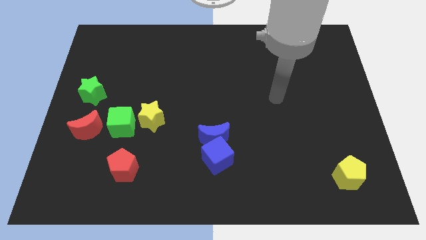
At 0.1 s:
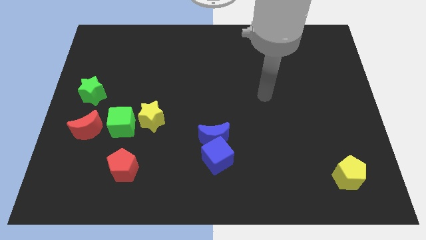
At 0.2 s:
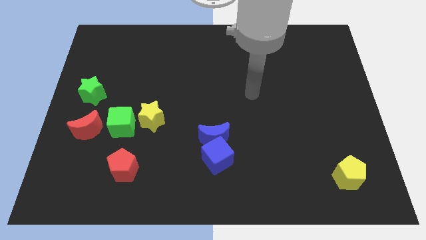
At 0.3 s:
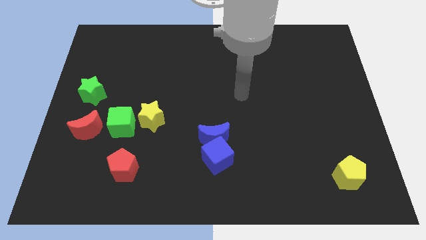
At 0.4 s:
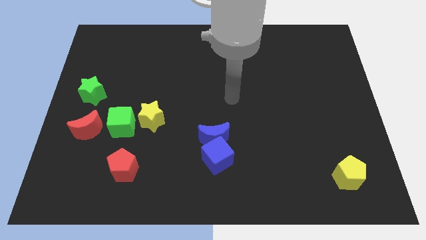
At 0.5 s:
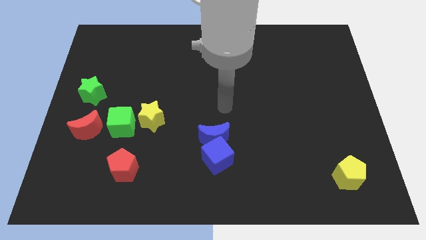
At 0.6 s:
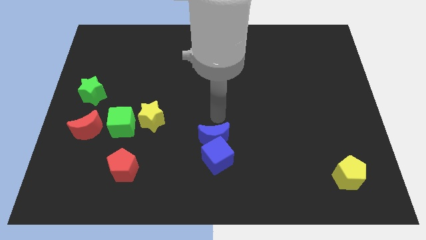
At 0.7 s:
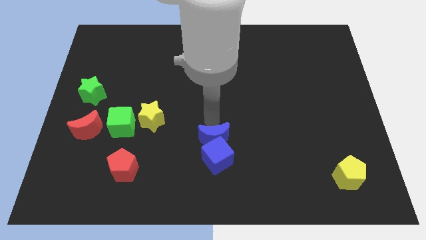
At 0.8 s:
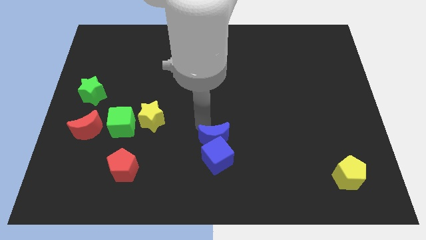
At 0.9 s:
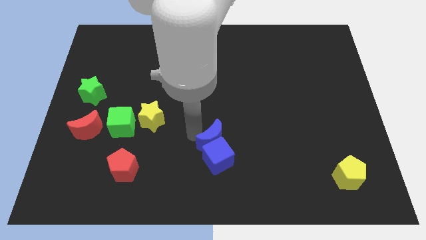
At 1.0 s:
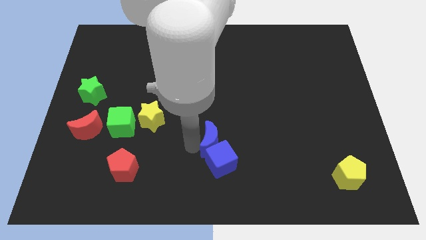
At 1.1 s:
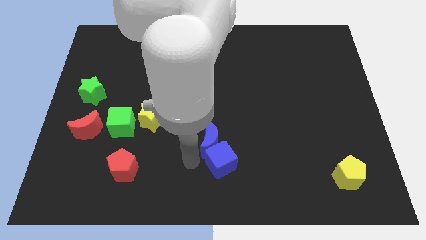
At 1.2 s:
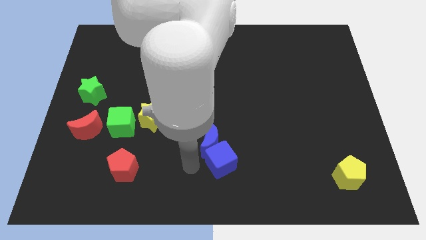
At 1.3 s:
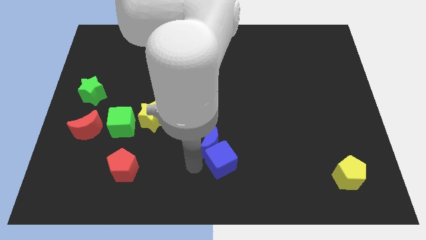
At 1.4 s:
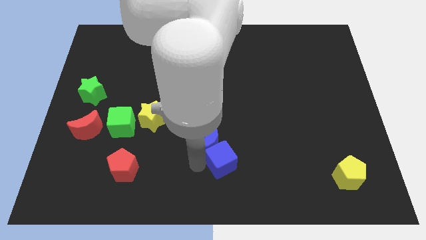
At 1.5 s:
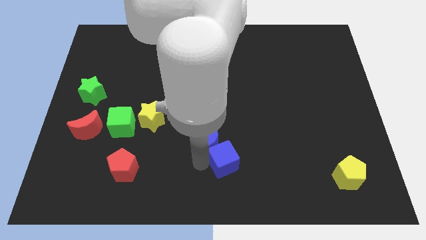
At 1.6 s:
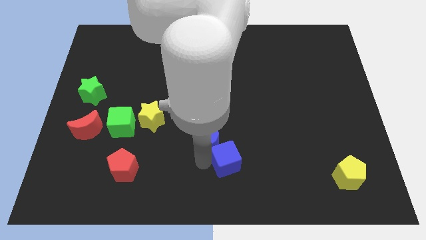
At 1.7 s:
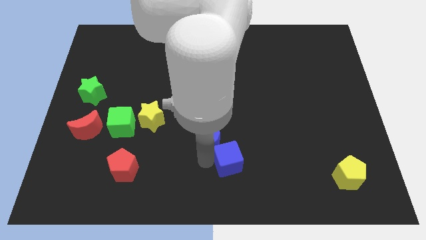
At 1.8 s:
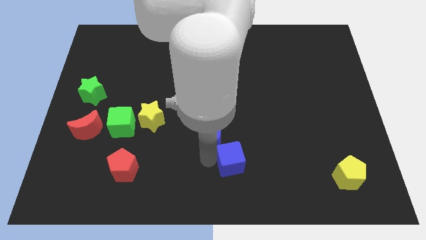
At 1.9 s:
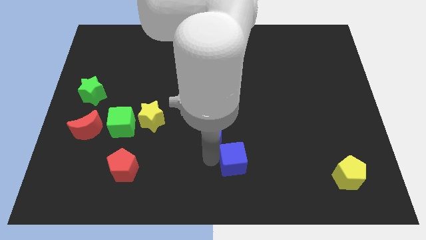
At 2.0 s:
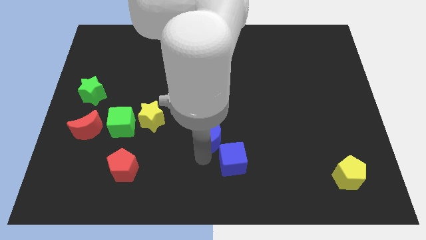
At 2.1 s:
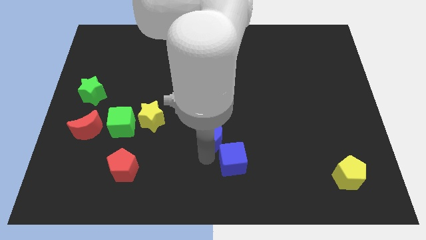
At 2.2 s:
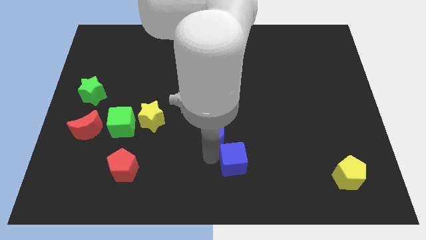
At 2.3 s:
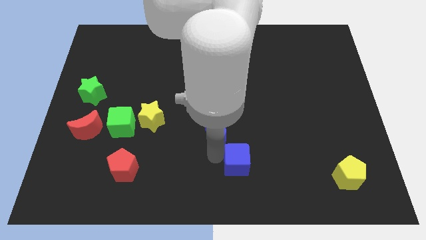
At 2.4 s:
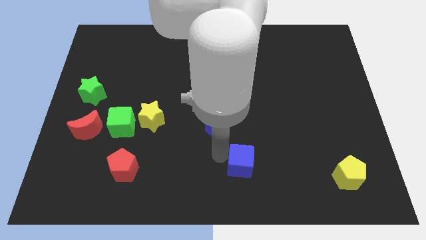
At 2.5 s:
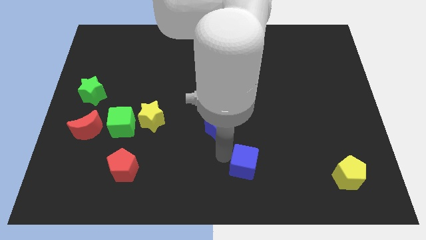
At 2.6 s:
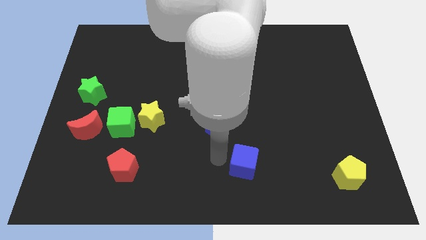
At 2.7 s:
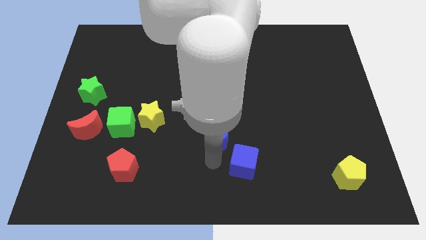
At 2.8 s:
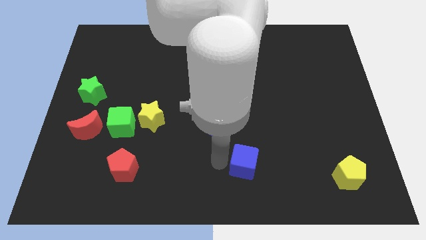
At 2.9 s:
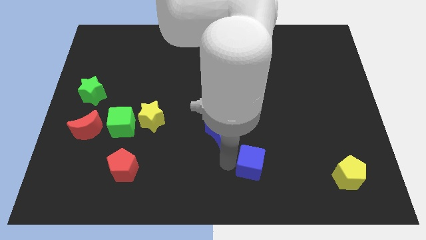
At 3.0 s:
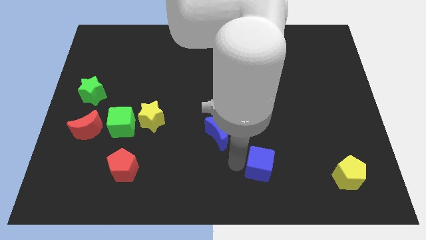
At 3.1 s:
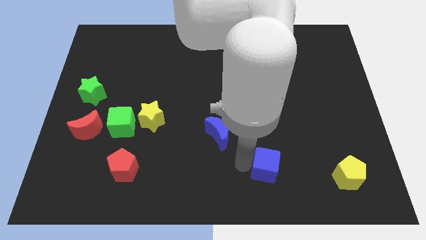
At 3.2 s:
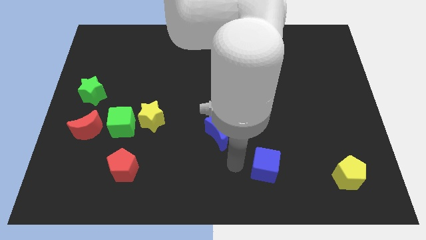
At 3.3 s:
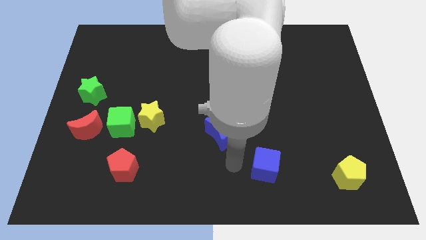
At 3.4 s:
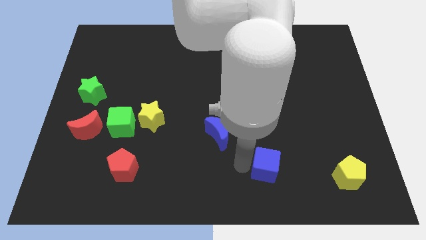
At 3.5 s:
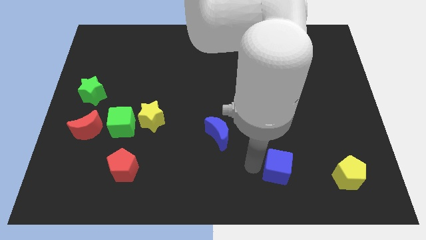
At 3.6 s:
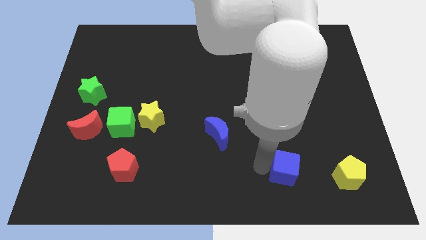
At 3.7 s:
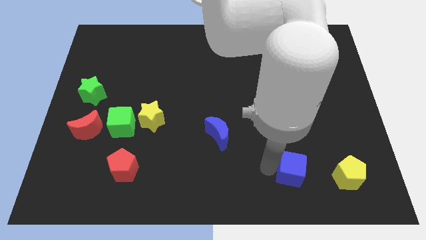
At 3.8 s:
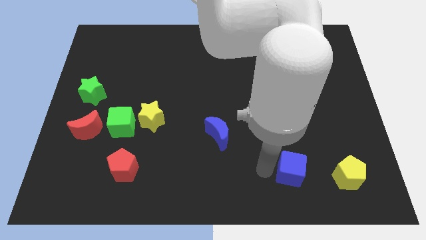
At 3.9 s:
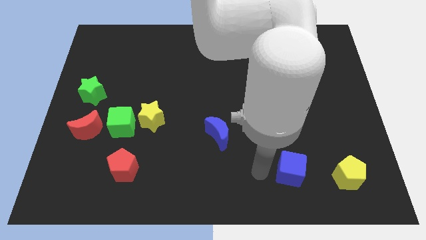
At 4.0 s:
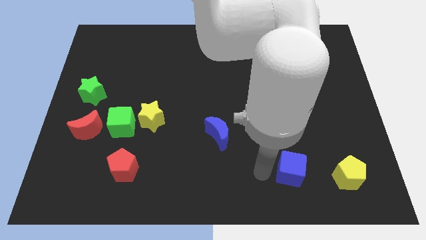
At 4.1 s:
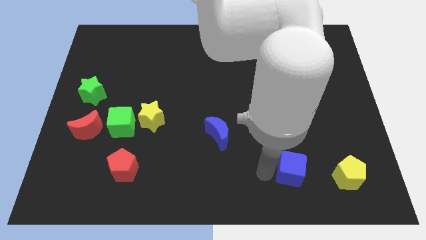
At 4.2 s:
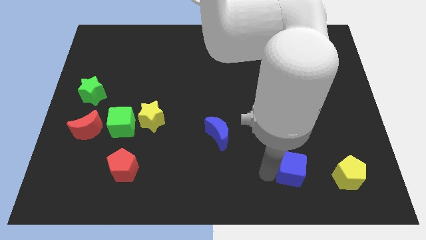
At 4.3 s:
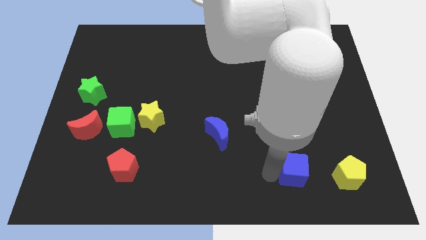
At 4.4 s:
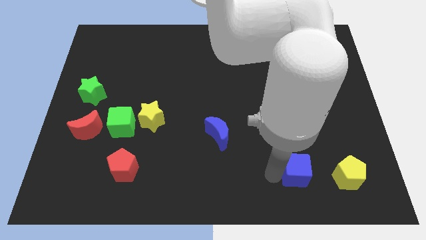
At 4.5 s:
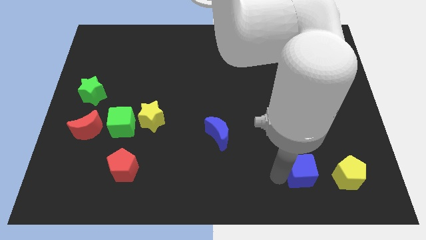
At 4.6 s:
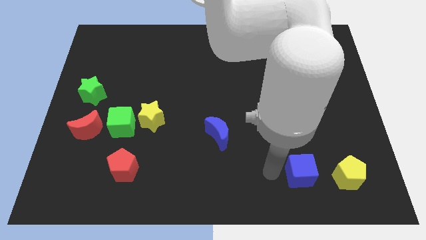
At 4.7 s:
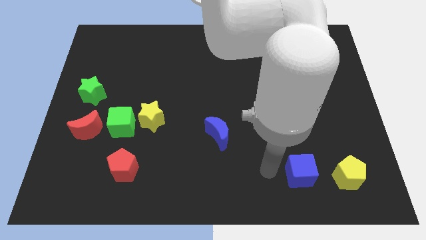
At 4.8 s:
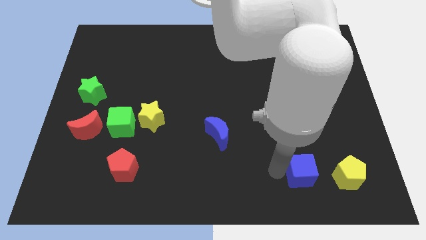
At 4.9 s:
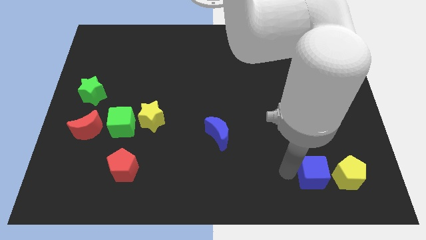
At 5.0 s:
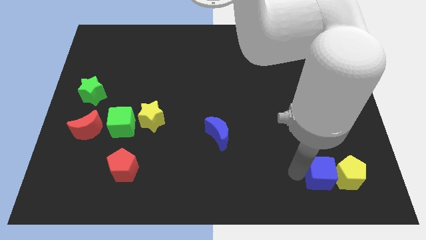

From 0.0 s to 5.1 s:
push the blue cube close to the yellow pentagon

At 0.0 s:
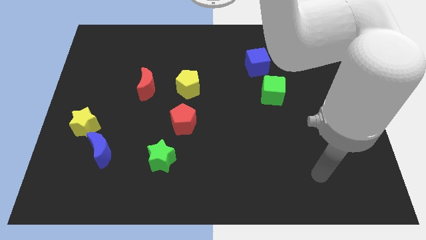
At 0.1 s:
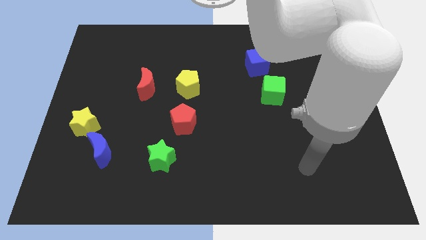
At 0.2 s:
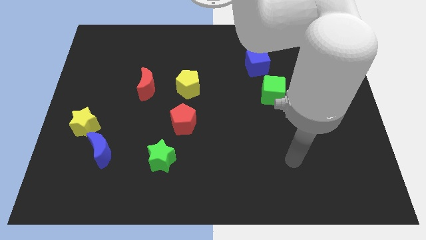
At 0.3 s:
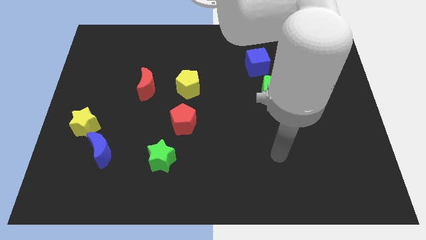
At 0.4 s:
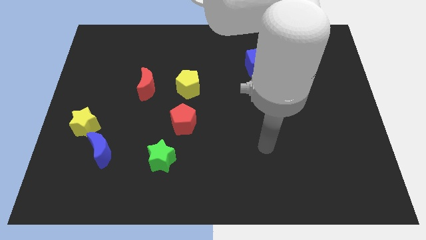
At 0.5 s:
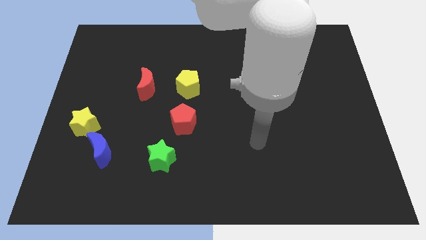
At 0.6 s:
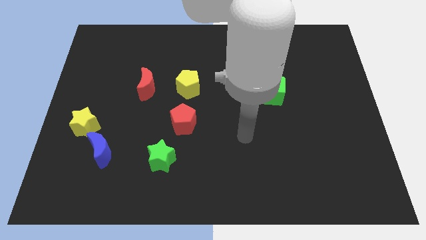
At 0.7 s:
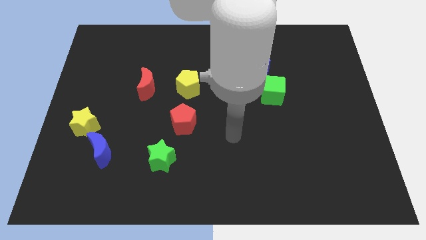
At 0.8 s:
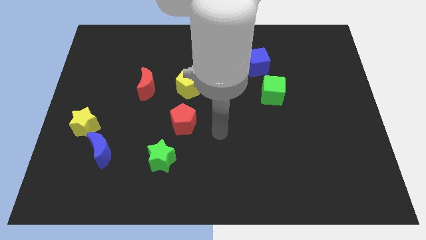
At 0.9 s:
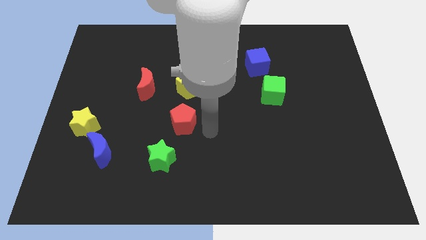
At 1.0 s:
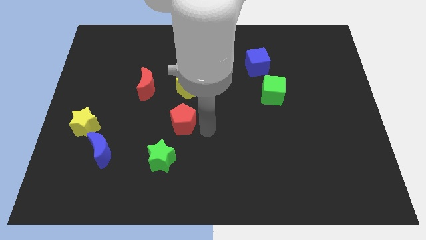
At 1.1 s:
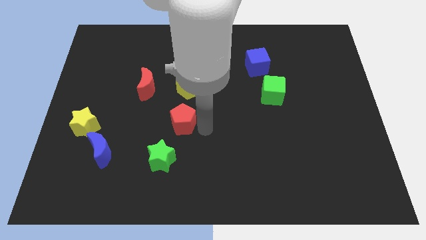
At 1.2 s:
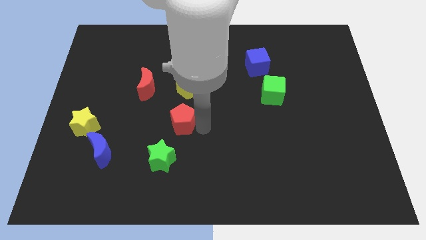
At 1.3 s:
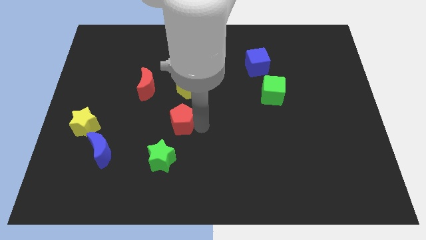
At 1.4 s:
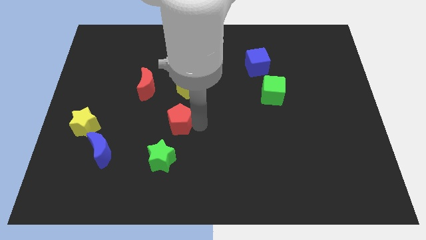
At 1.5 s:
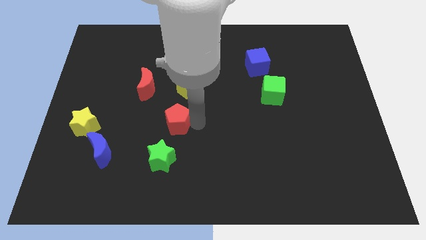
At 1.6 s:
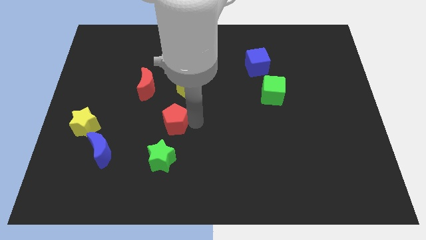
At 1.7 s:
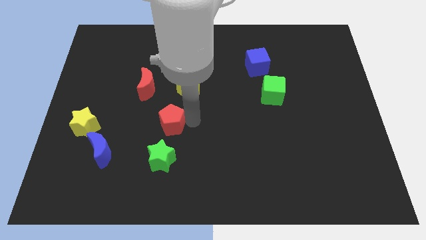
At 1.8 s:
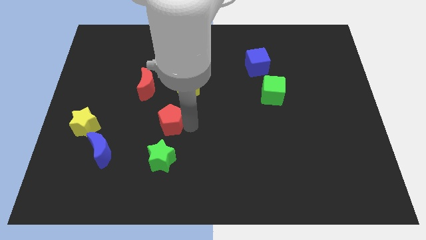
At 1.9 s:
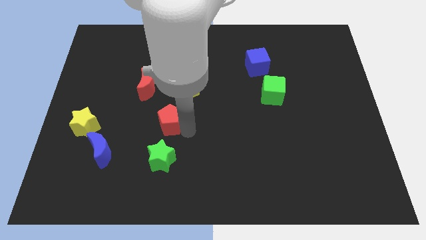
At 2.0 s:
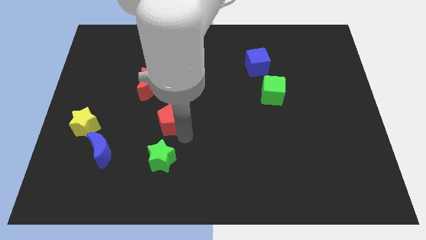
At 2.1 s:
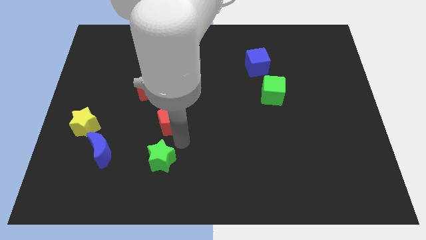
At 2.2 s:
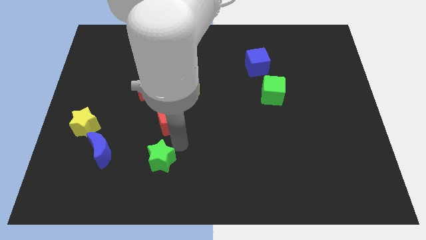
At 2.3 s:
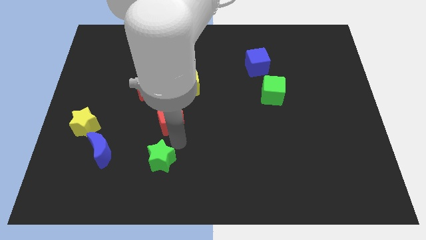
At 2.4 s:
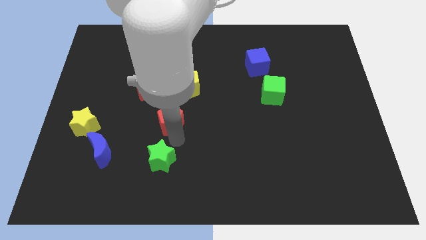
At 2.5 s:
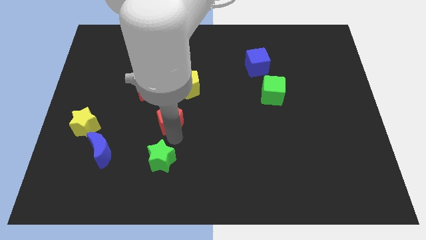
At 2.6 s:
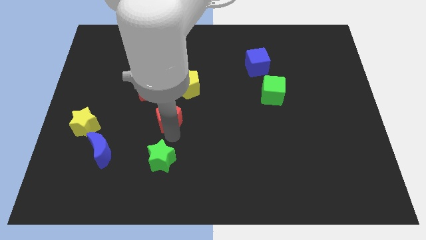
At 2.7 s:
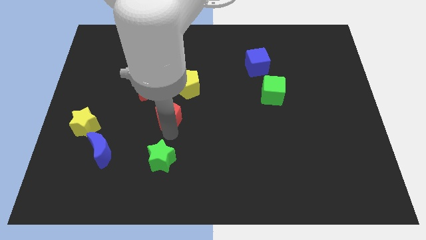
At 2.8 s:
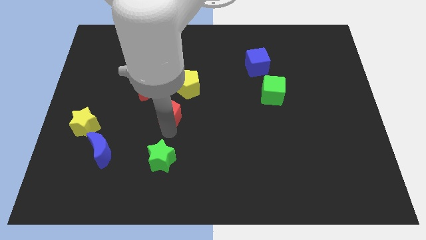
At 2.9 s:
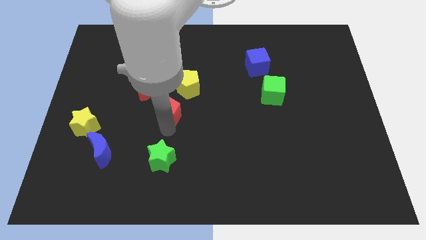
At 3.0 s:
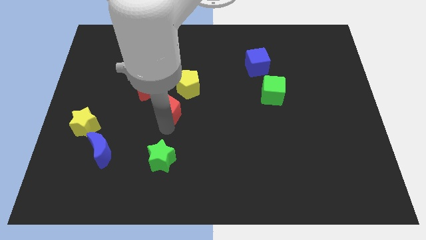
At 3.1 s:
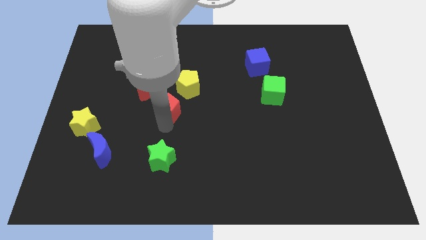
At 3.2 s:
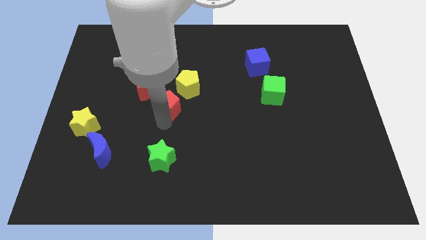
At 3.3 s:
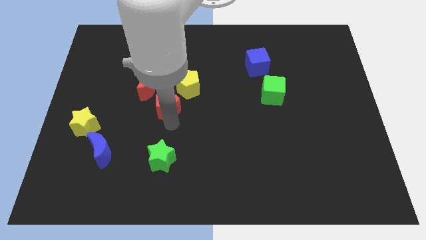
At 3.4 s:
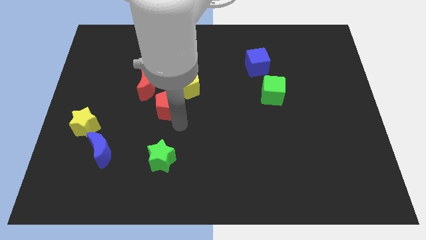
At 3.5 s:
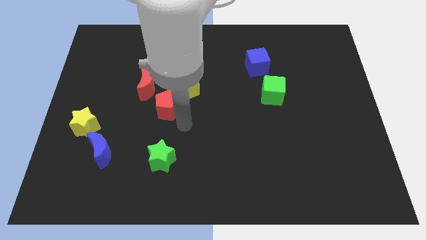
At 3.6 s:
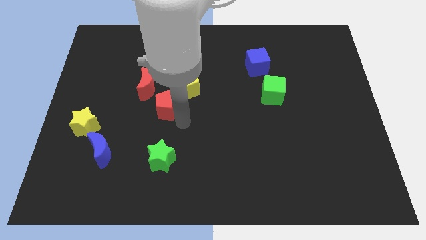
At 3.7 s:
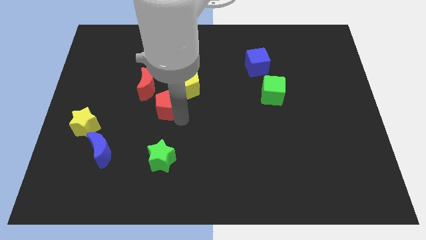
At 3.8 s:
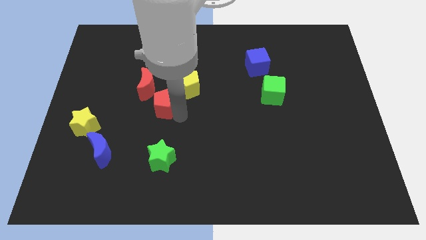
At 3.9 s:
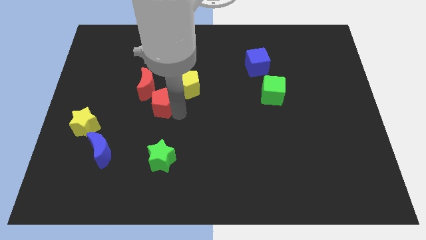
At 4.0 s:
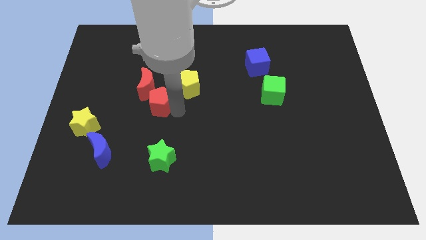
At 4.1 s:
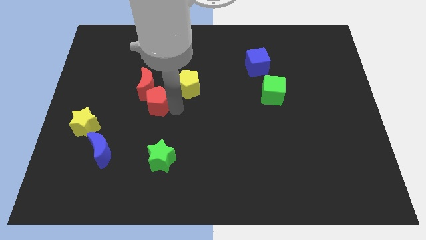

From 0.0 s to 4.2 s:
push the red pentagon next to the red moon
